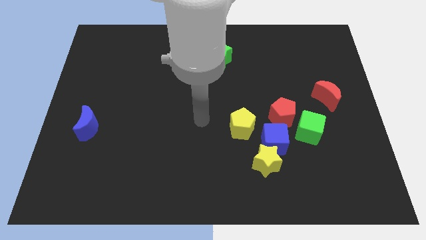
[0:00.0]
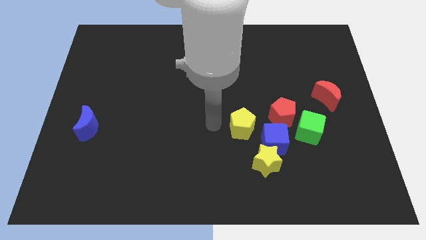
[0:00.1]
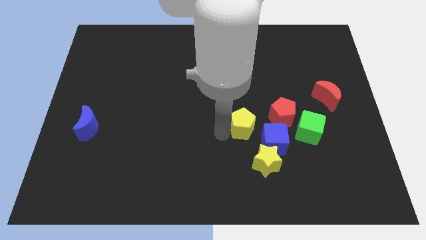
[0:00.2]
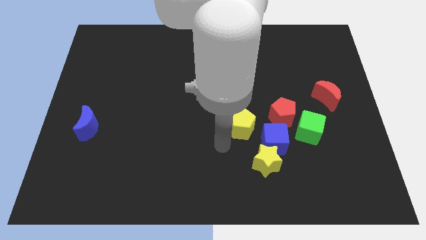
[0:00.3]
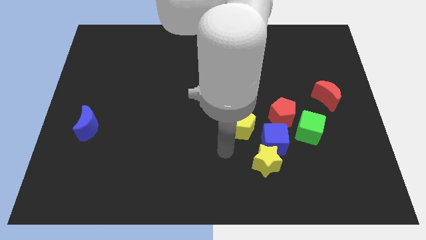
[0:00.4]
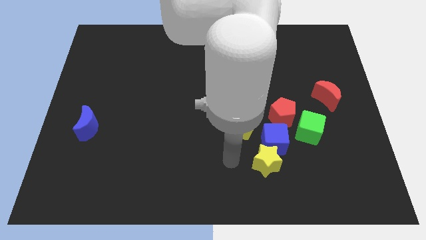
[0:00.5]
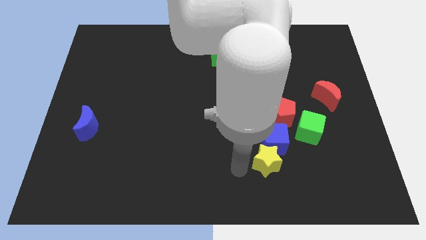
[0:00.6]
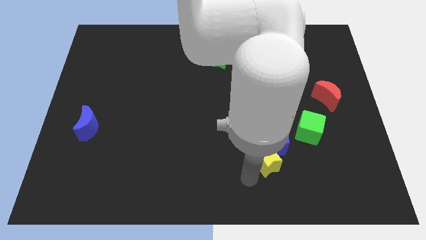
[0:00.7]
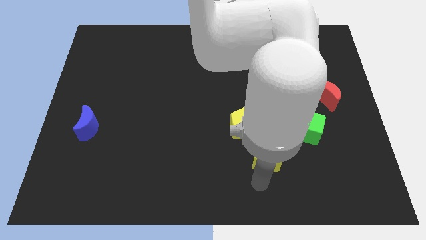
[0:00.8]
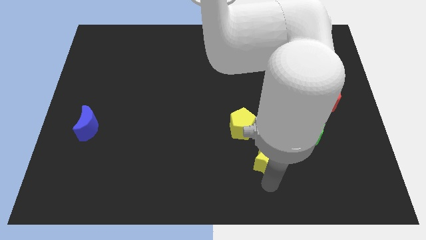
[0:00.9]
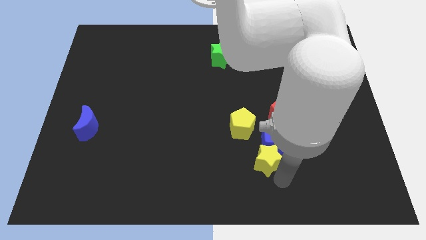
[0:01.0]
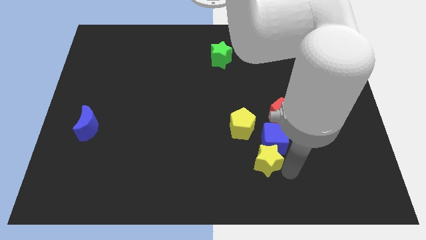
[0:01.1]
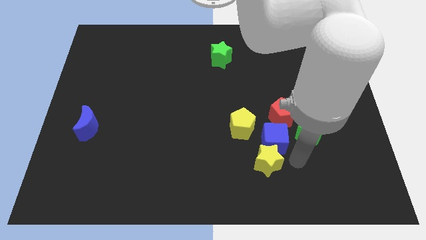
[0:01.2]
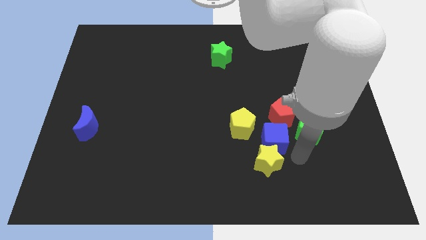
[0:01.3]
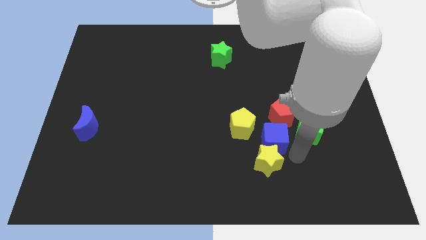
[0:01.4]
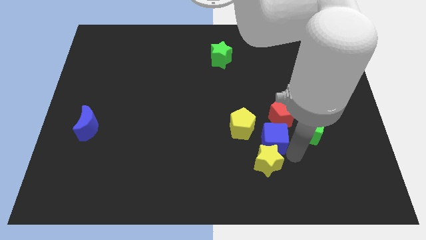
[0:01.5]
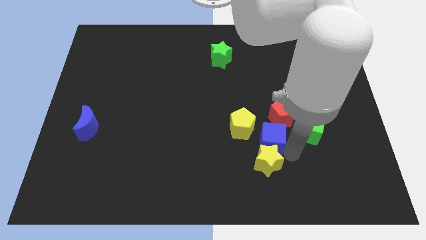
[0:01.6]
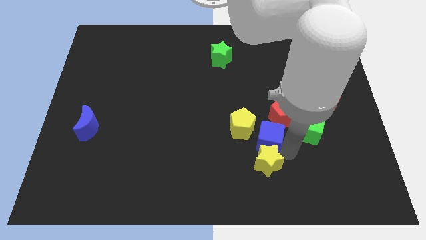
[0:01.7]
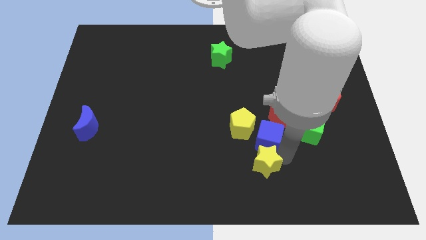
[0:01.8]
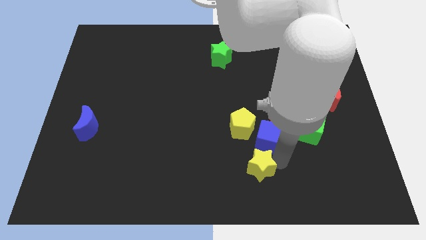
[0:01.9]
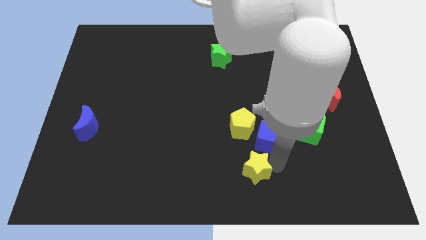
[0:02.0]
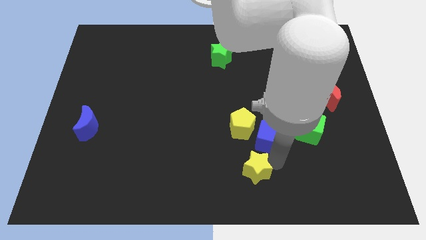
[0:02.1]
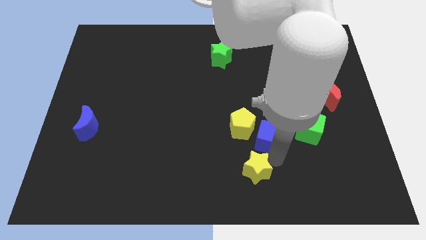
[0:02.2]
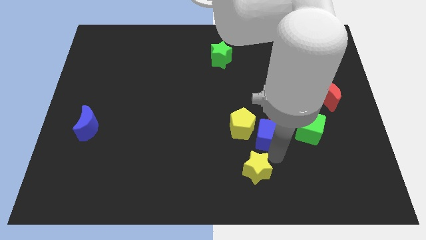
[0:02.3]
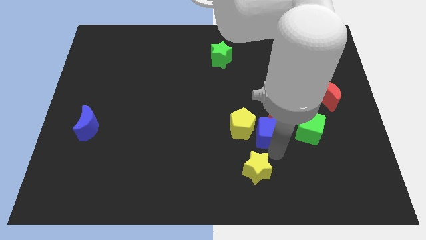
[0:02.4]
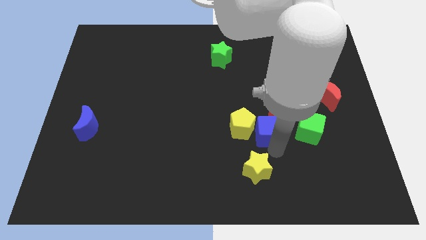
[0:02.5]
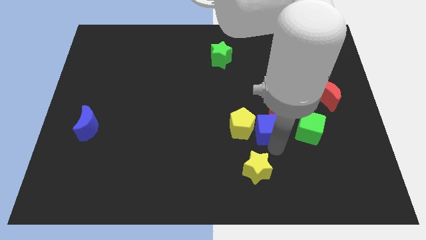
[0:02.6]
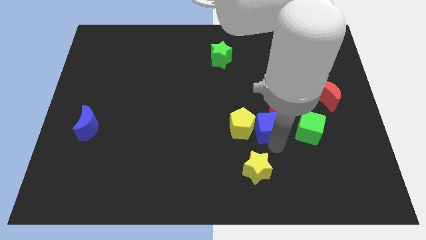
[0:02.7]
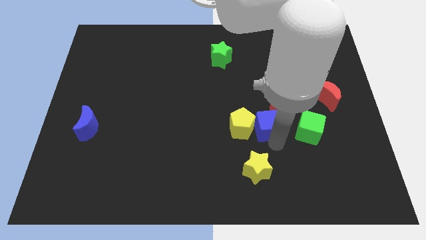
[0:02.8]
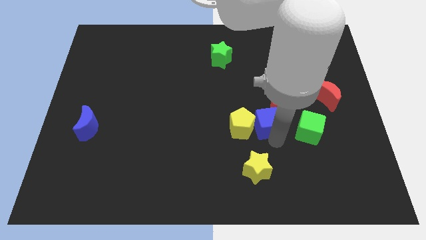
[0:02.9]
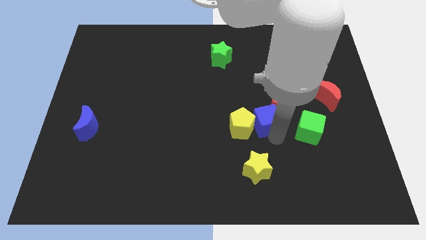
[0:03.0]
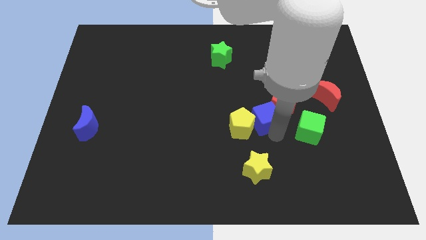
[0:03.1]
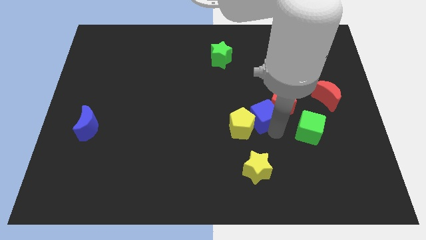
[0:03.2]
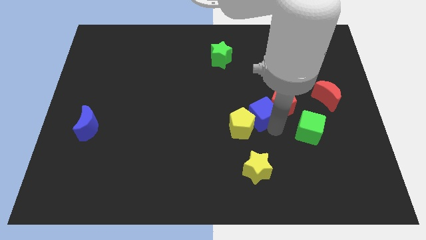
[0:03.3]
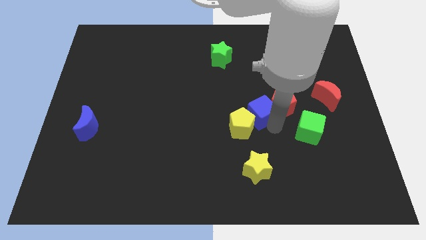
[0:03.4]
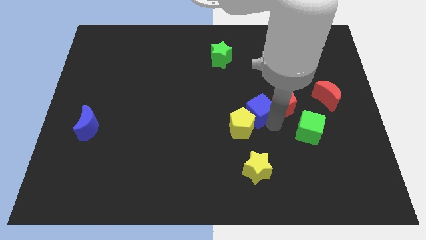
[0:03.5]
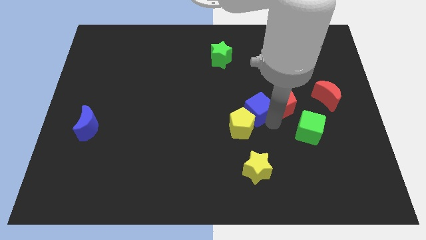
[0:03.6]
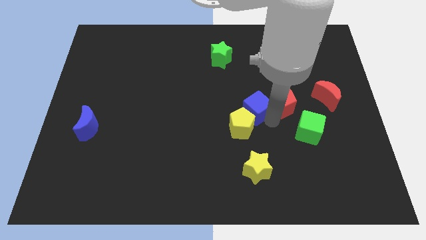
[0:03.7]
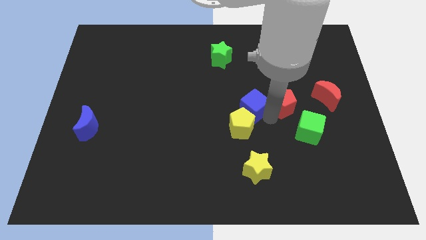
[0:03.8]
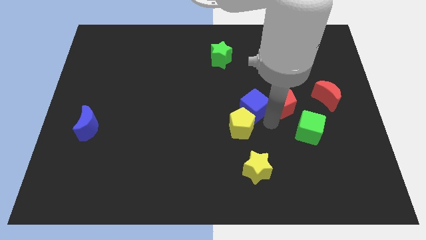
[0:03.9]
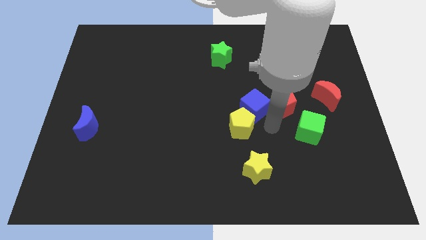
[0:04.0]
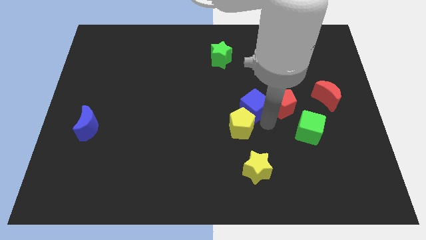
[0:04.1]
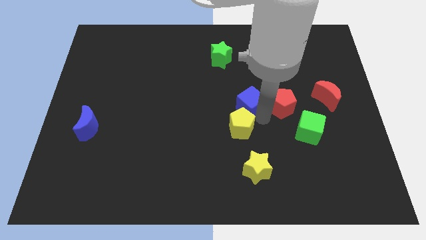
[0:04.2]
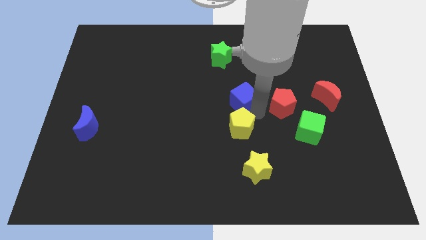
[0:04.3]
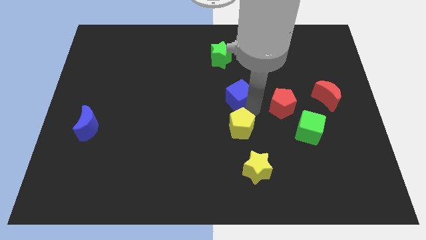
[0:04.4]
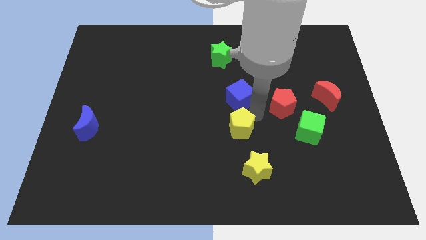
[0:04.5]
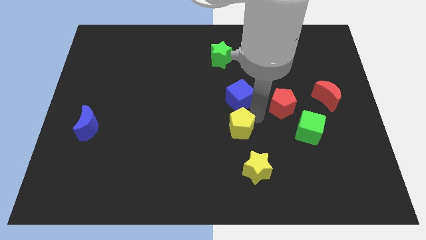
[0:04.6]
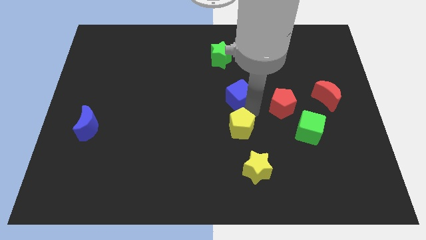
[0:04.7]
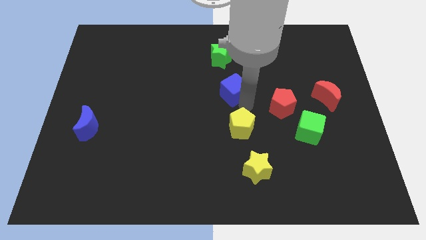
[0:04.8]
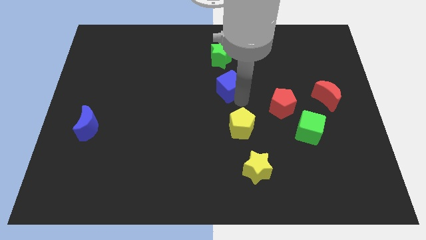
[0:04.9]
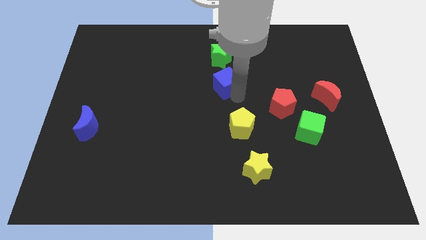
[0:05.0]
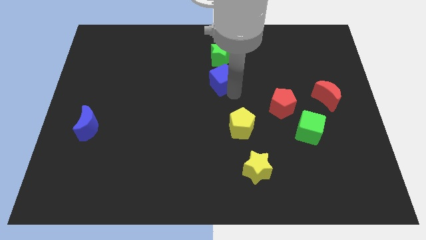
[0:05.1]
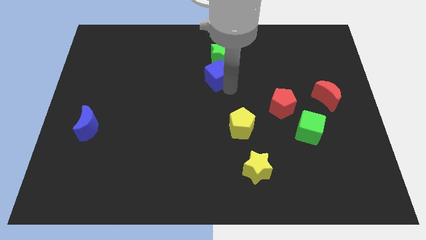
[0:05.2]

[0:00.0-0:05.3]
slide the blue cube diagonally upwards and left

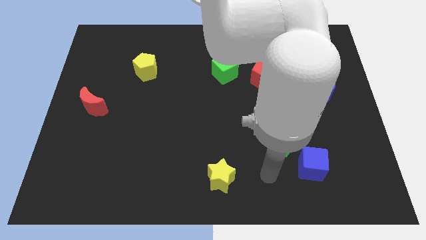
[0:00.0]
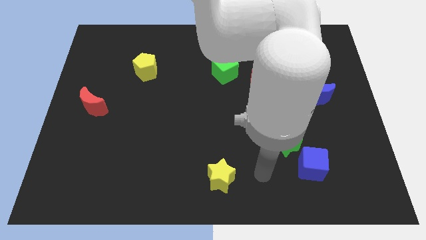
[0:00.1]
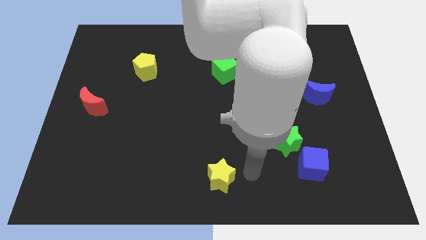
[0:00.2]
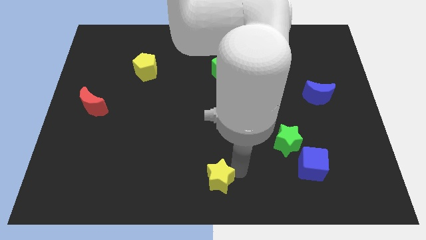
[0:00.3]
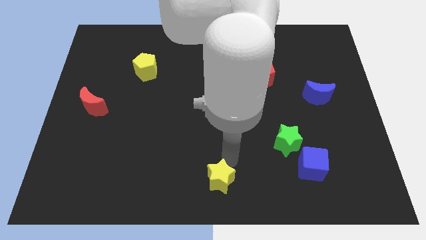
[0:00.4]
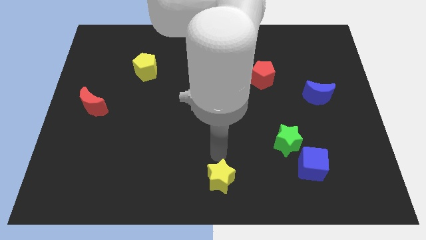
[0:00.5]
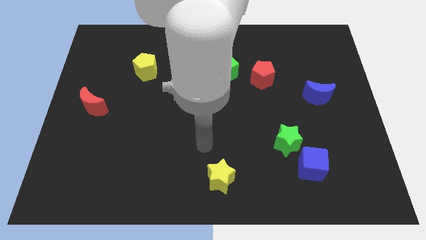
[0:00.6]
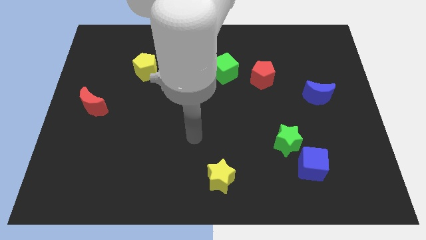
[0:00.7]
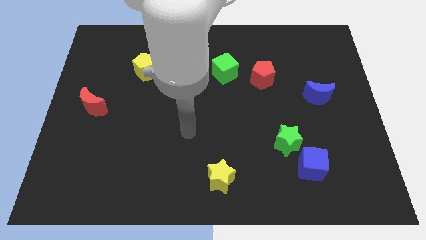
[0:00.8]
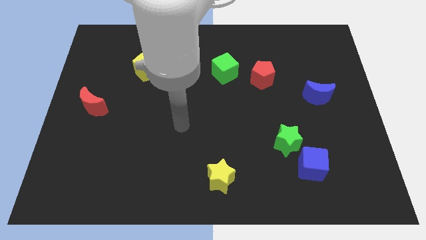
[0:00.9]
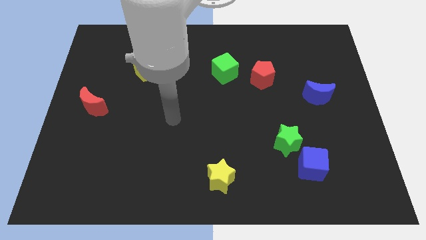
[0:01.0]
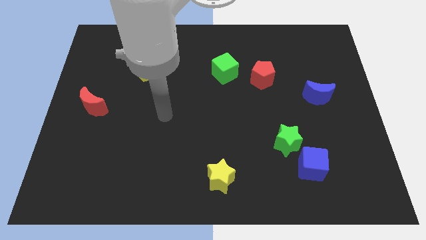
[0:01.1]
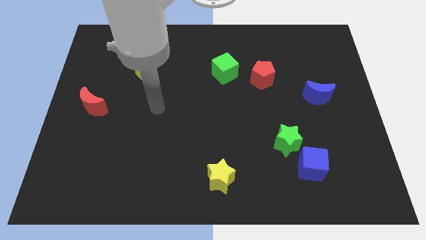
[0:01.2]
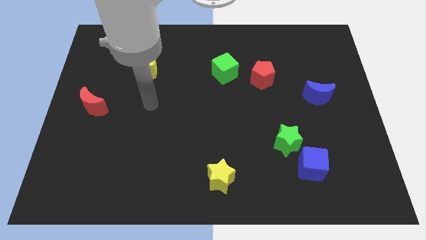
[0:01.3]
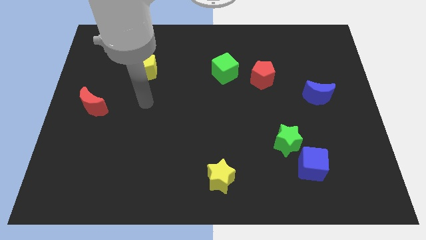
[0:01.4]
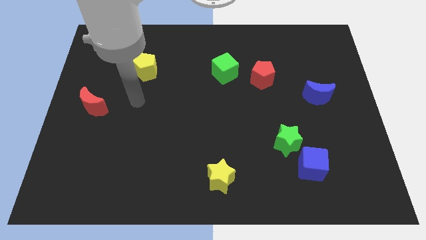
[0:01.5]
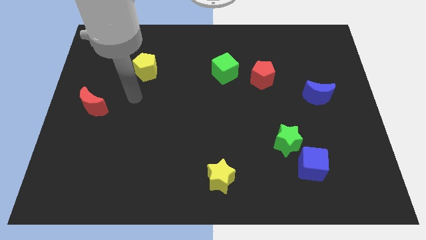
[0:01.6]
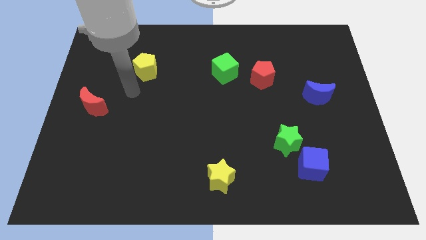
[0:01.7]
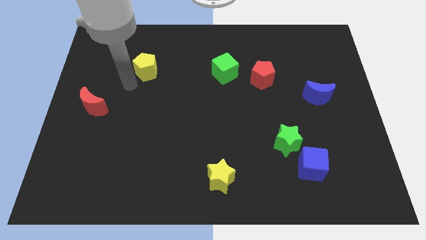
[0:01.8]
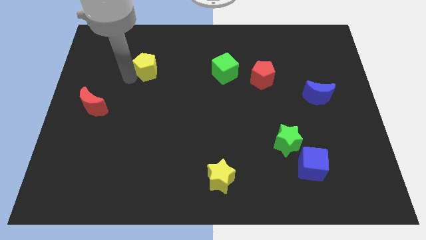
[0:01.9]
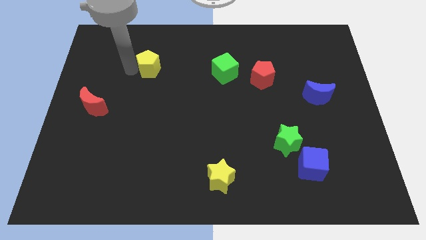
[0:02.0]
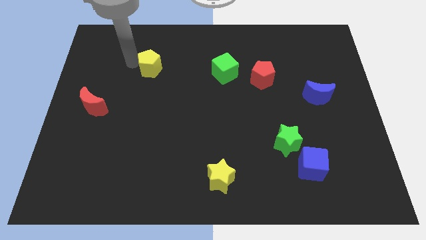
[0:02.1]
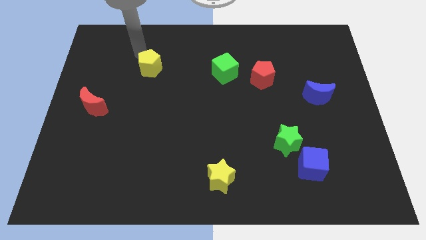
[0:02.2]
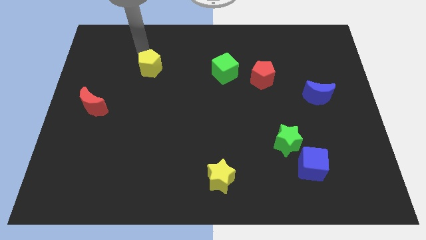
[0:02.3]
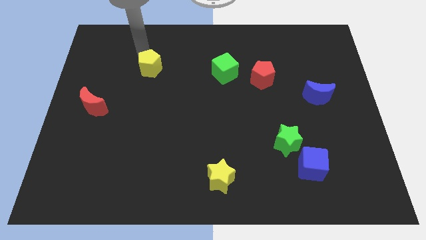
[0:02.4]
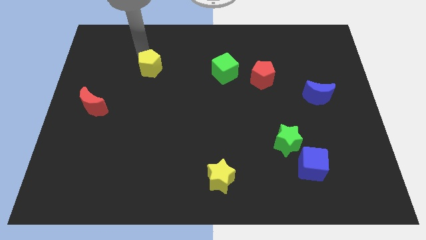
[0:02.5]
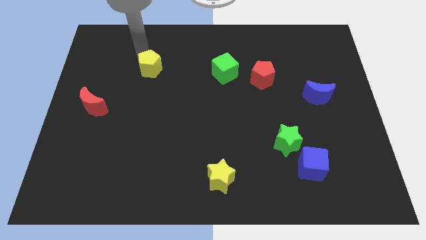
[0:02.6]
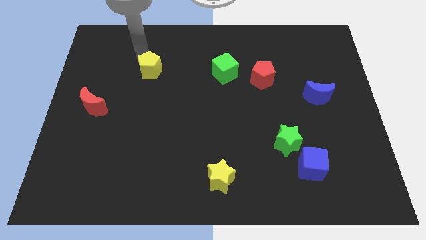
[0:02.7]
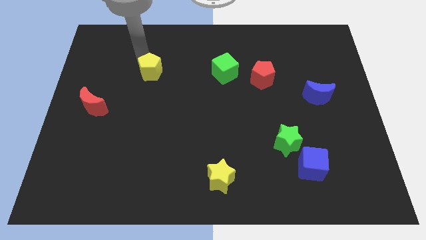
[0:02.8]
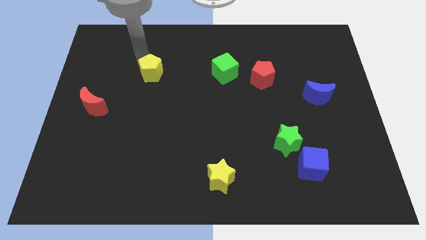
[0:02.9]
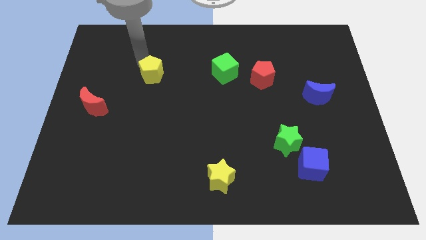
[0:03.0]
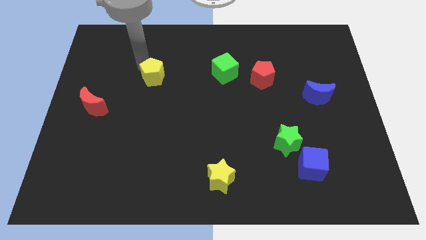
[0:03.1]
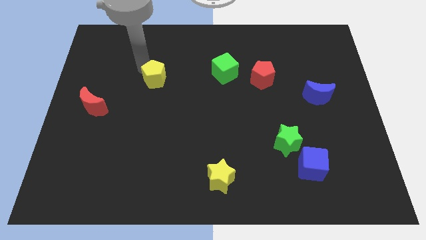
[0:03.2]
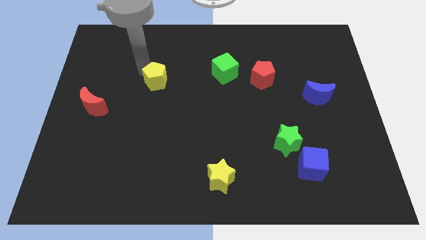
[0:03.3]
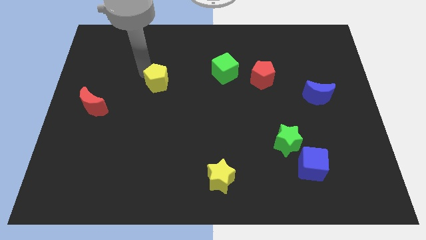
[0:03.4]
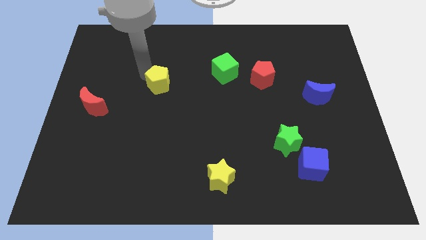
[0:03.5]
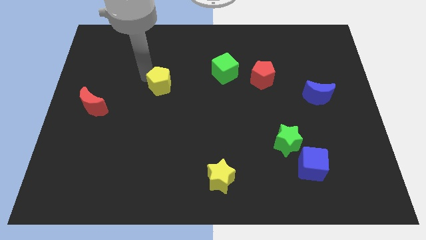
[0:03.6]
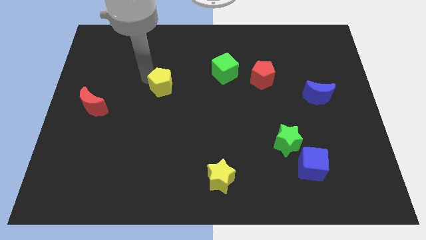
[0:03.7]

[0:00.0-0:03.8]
move the yellow pentagon slightly diagonally down and right
